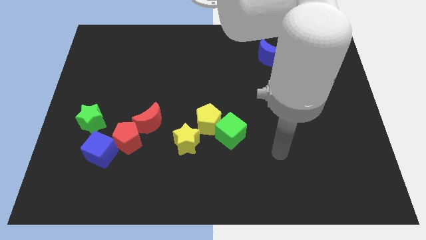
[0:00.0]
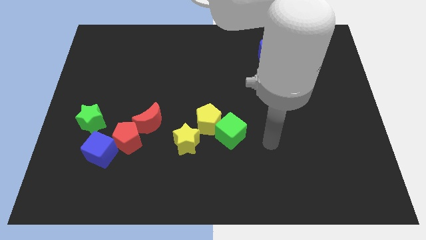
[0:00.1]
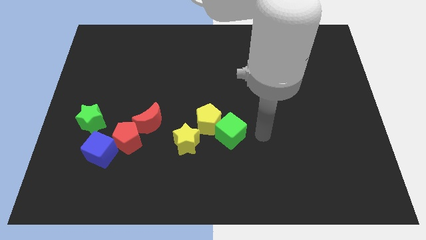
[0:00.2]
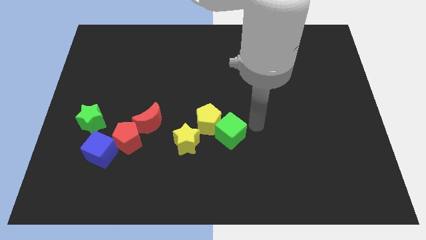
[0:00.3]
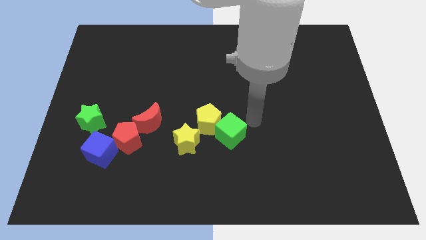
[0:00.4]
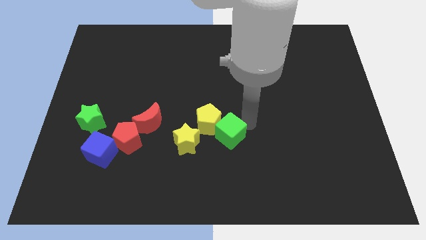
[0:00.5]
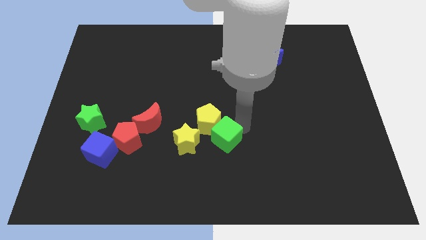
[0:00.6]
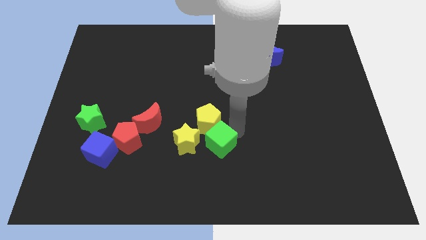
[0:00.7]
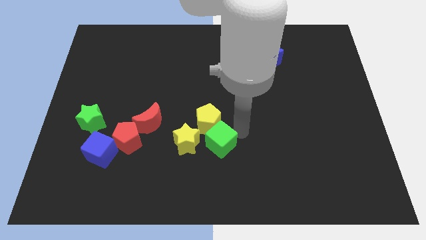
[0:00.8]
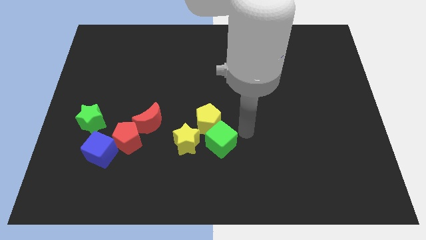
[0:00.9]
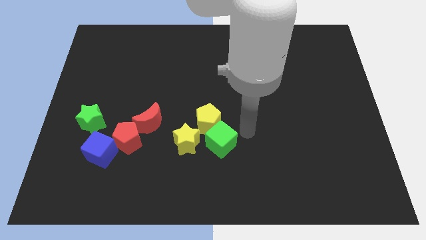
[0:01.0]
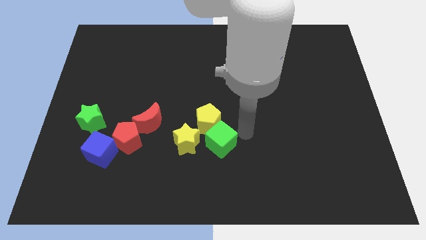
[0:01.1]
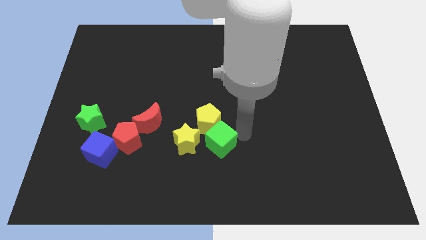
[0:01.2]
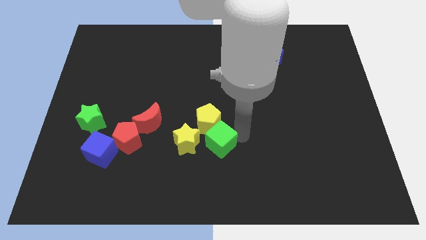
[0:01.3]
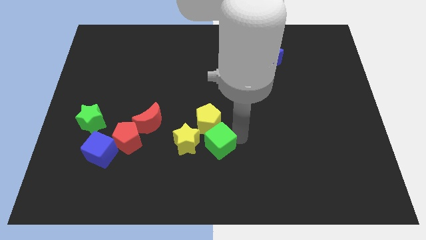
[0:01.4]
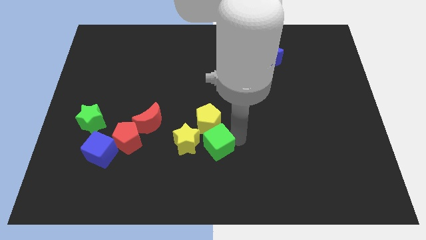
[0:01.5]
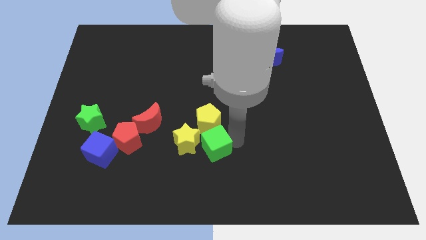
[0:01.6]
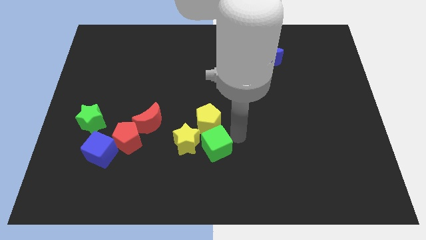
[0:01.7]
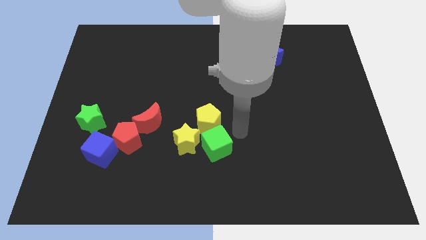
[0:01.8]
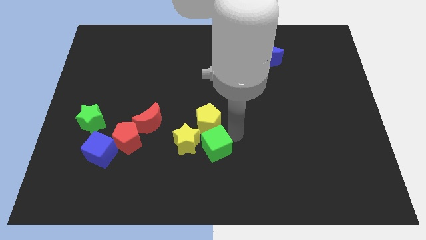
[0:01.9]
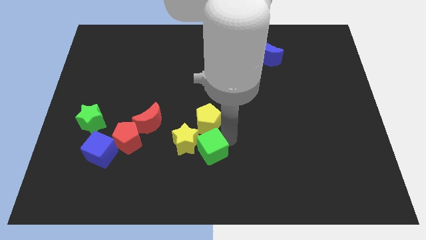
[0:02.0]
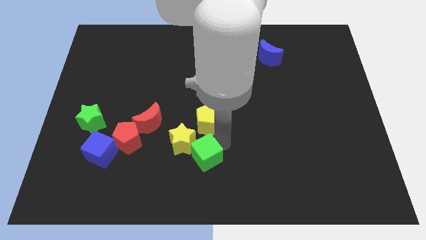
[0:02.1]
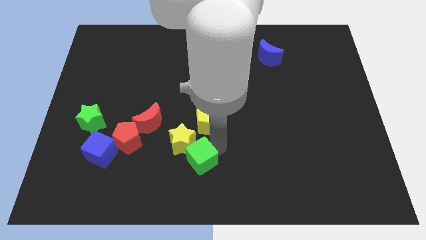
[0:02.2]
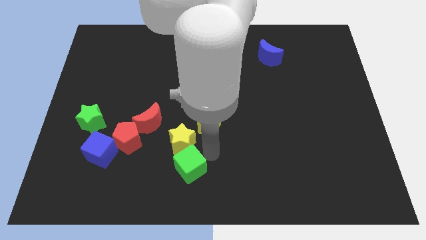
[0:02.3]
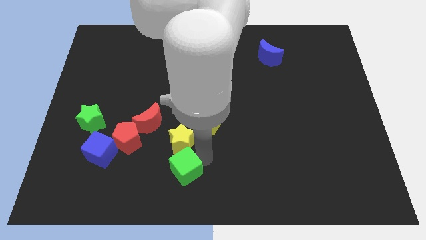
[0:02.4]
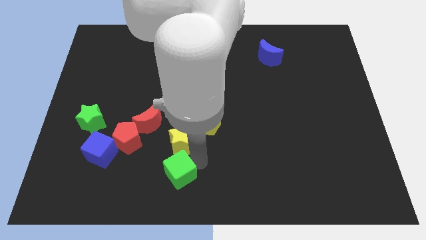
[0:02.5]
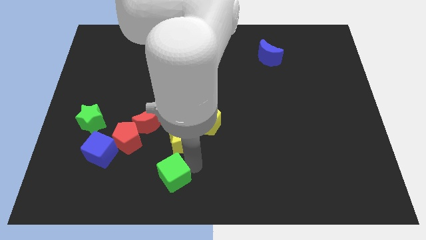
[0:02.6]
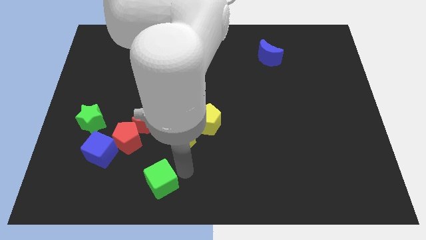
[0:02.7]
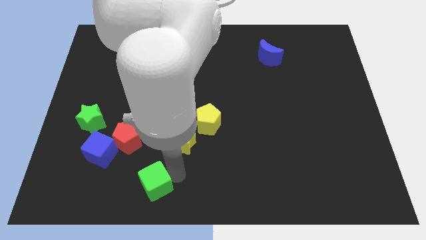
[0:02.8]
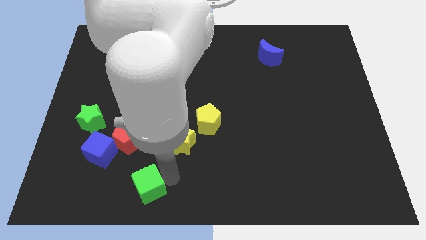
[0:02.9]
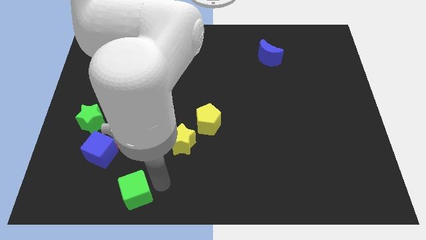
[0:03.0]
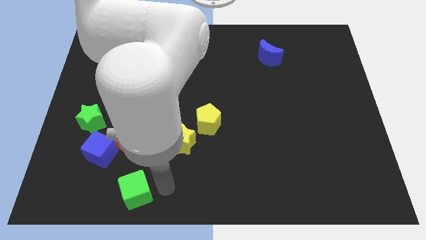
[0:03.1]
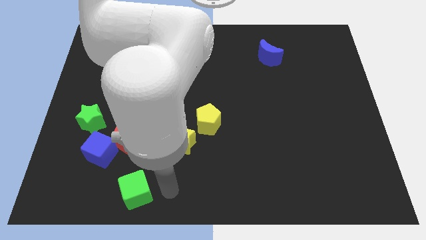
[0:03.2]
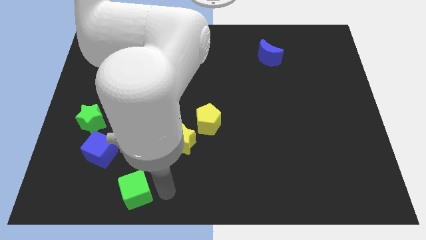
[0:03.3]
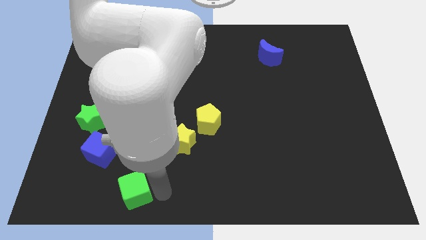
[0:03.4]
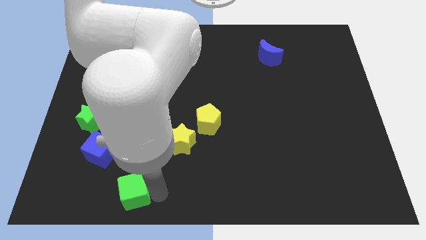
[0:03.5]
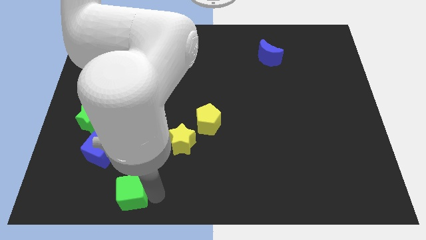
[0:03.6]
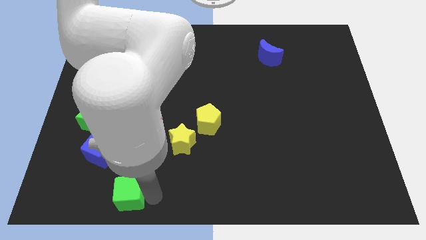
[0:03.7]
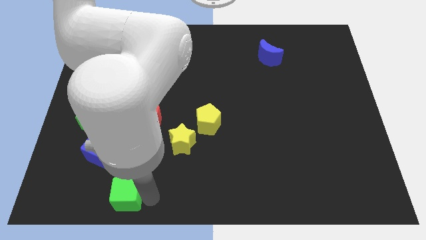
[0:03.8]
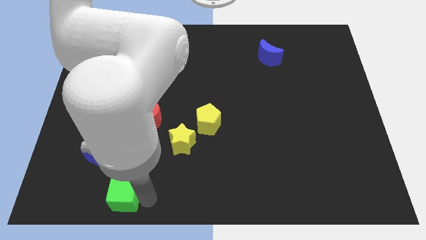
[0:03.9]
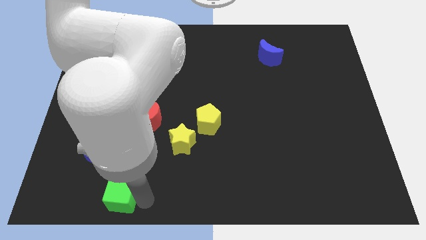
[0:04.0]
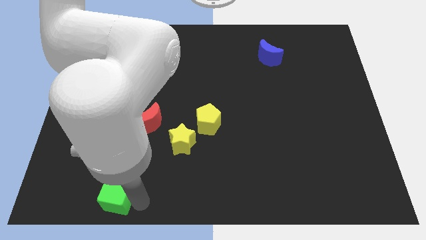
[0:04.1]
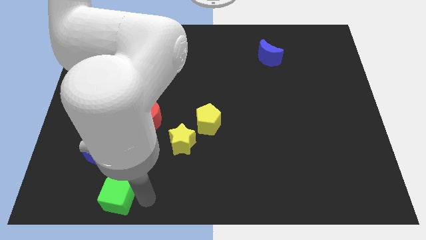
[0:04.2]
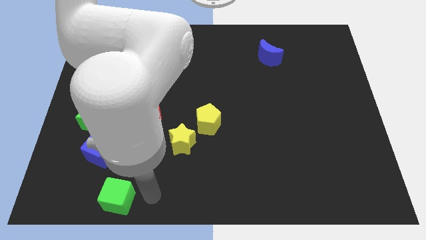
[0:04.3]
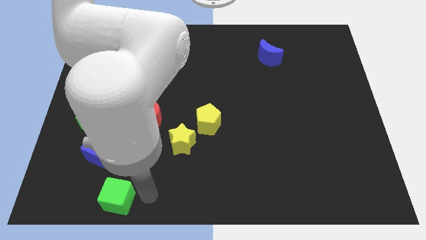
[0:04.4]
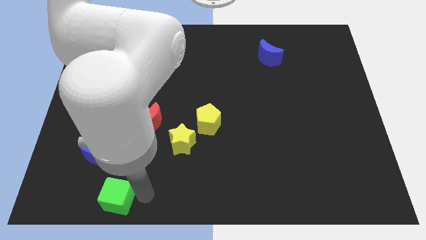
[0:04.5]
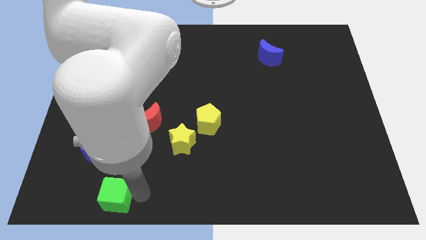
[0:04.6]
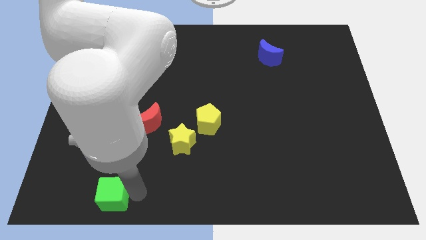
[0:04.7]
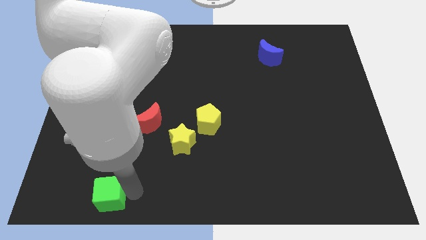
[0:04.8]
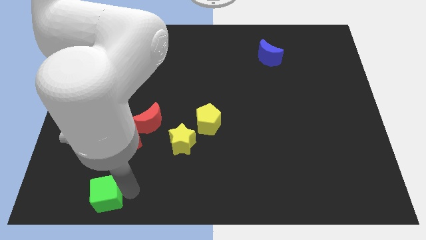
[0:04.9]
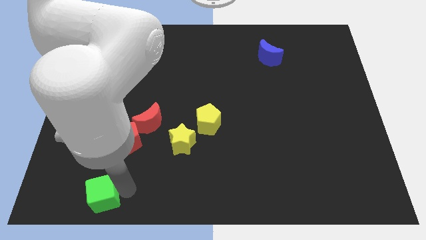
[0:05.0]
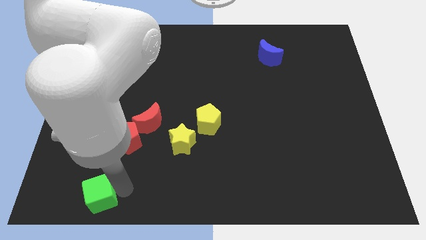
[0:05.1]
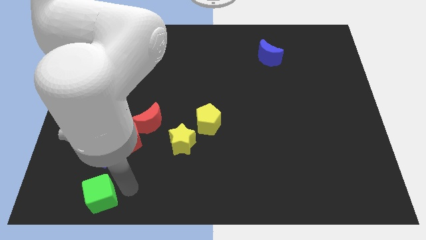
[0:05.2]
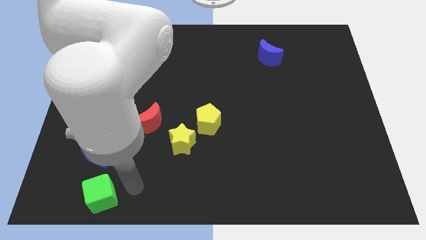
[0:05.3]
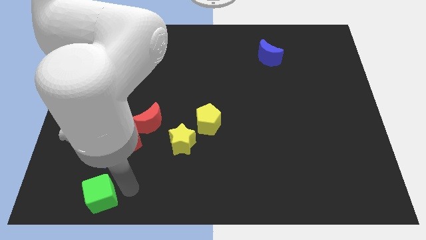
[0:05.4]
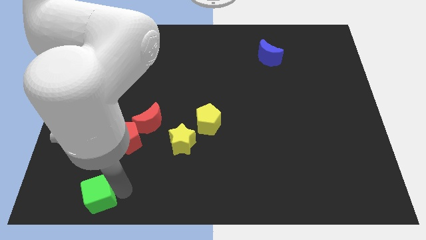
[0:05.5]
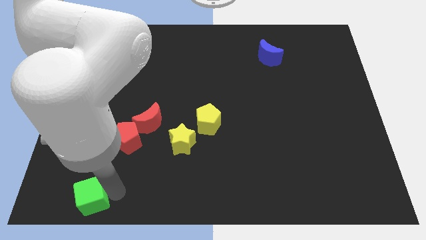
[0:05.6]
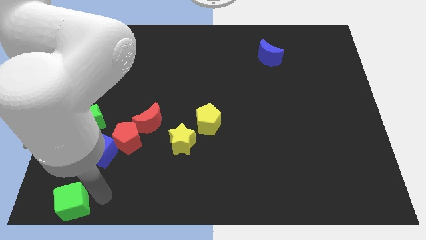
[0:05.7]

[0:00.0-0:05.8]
put the green cube to the bottom left of the board

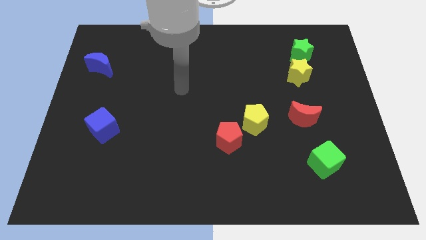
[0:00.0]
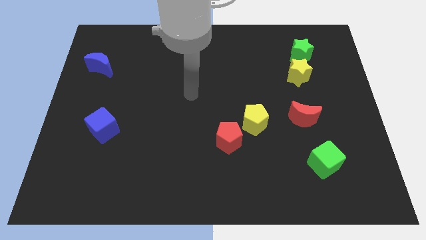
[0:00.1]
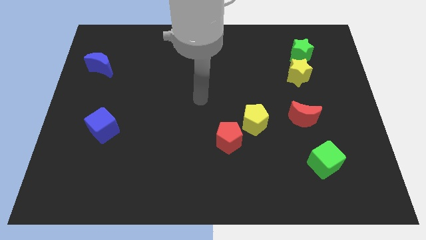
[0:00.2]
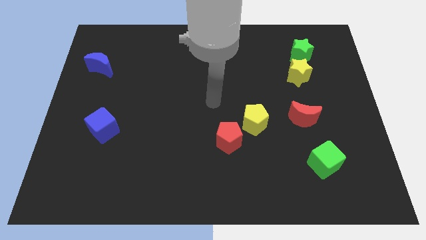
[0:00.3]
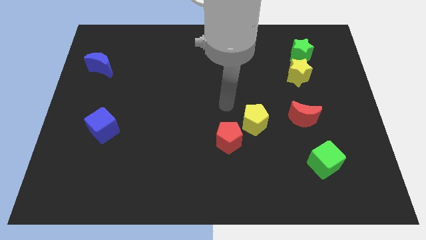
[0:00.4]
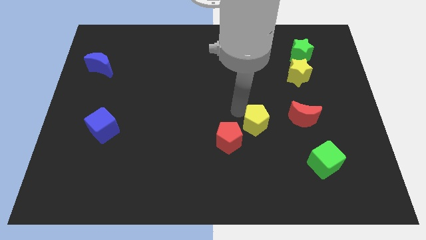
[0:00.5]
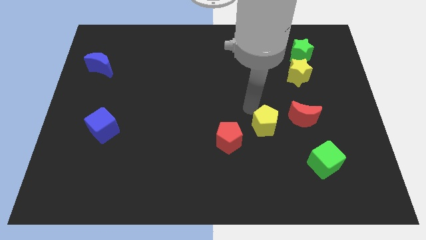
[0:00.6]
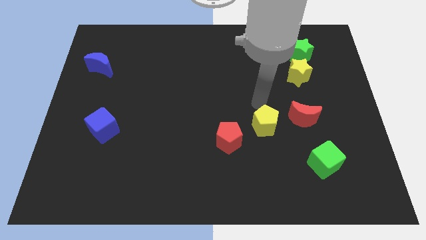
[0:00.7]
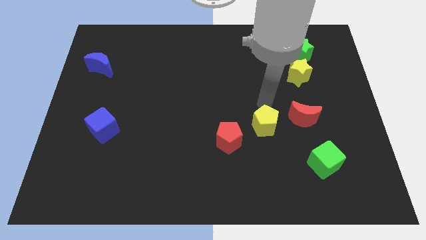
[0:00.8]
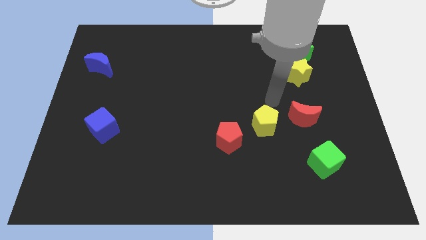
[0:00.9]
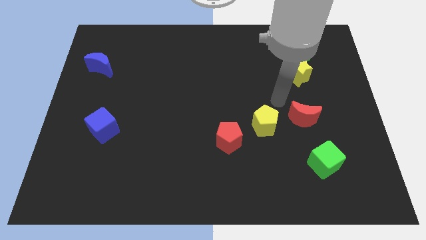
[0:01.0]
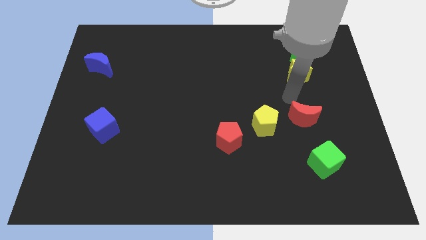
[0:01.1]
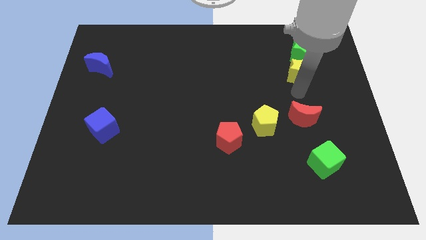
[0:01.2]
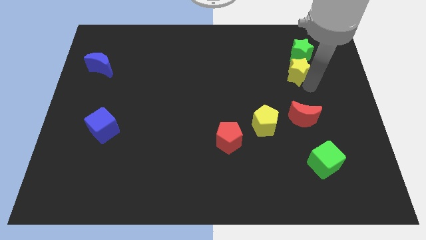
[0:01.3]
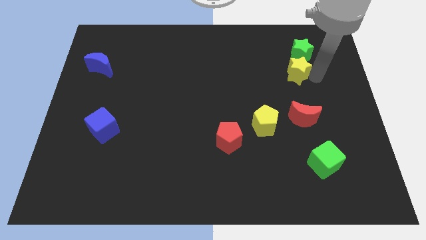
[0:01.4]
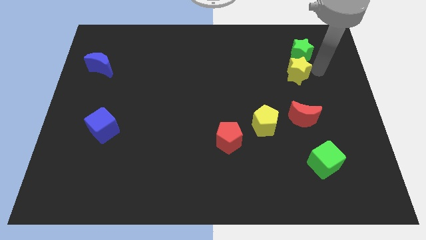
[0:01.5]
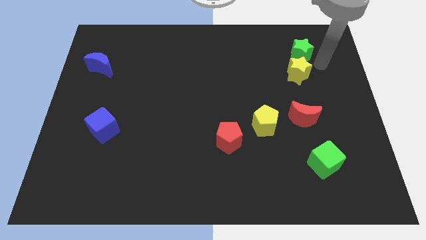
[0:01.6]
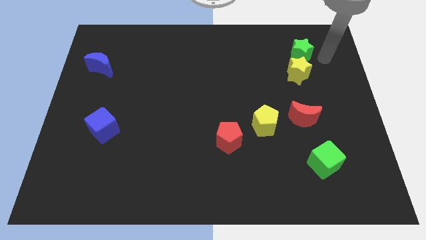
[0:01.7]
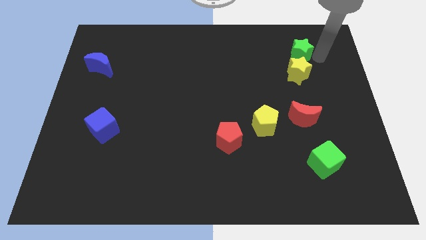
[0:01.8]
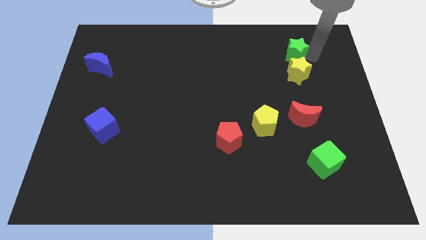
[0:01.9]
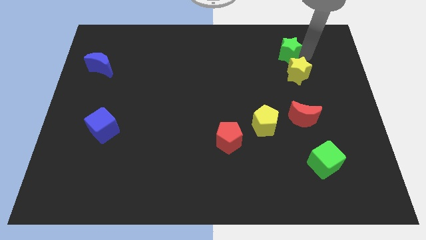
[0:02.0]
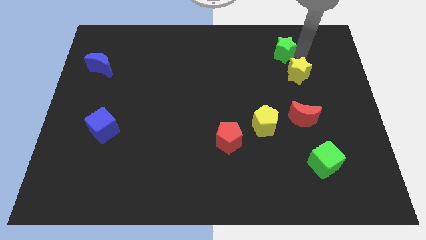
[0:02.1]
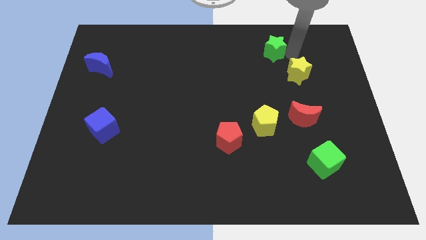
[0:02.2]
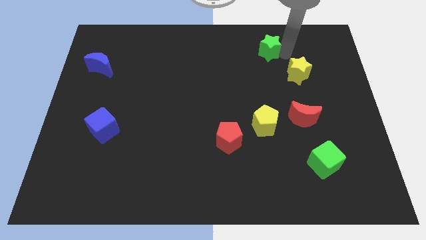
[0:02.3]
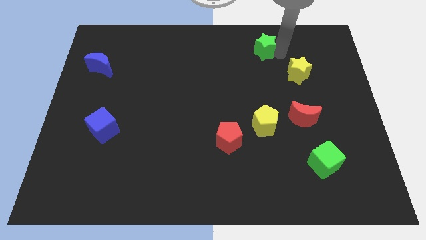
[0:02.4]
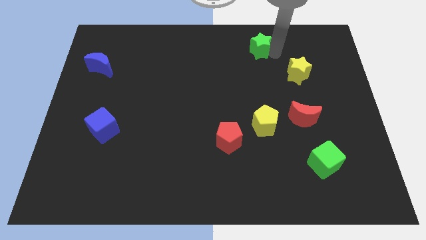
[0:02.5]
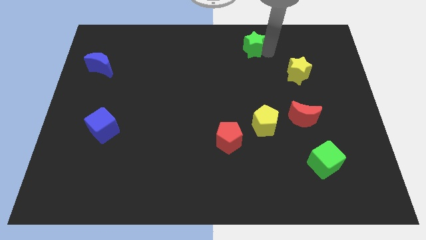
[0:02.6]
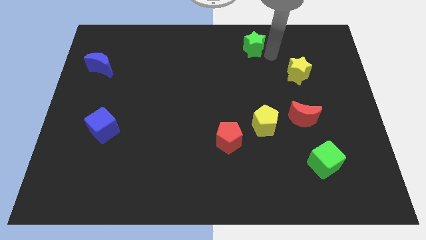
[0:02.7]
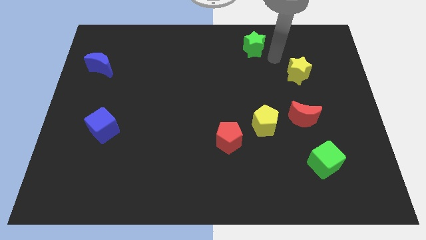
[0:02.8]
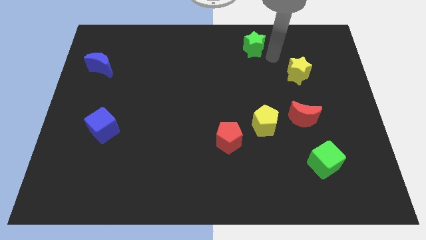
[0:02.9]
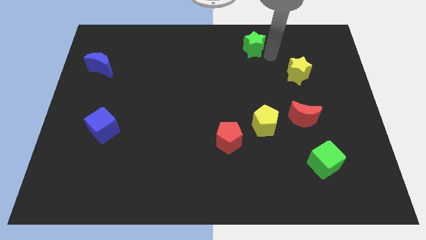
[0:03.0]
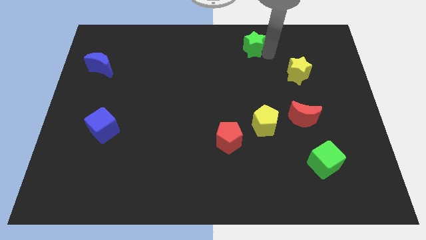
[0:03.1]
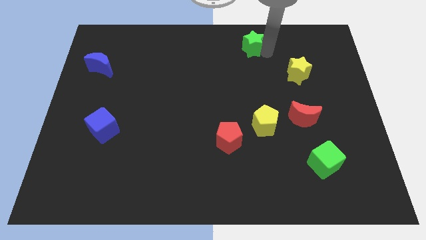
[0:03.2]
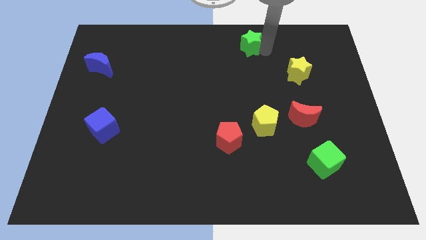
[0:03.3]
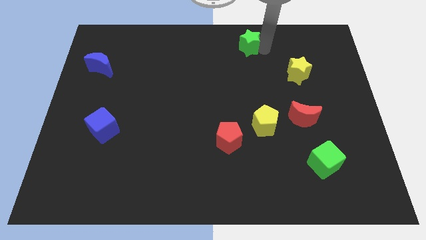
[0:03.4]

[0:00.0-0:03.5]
push the green star to the towards your base
